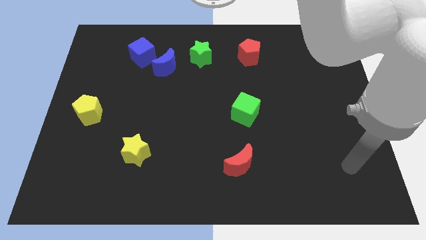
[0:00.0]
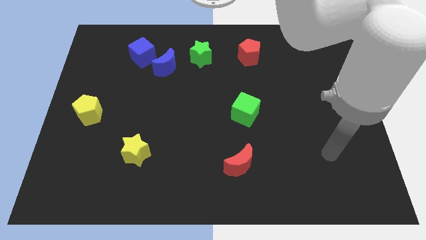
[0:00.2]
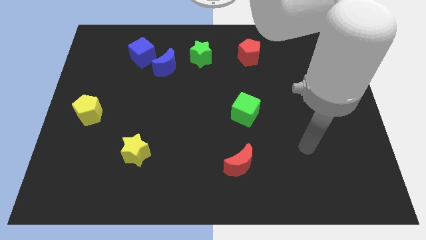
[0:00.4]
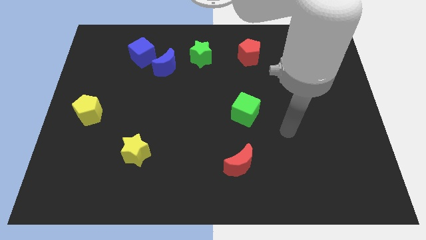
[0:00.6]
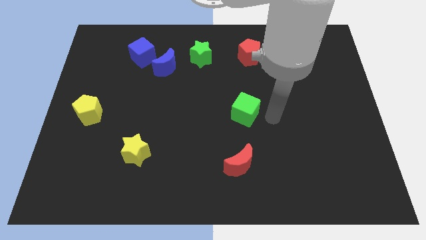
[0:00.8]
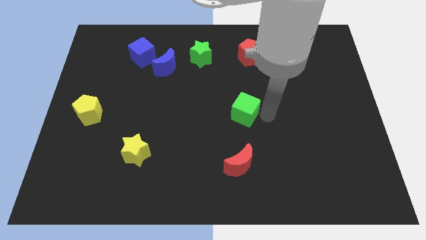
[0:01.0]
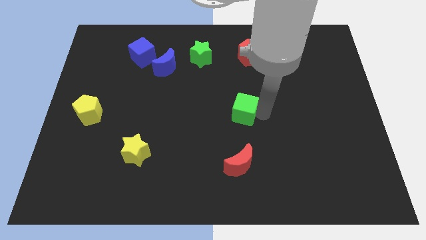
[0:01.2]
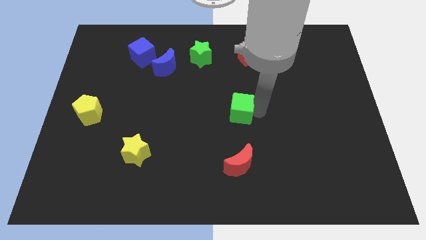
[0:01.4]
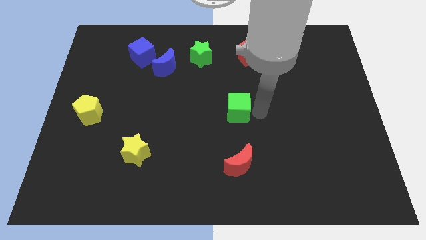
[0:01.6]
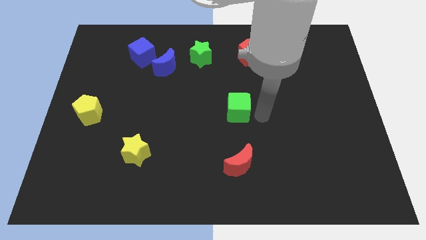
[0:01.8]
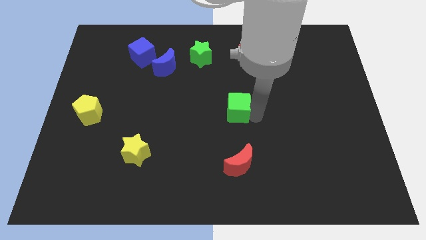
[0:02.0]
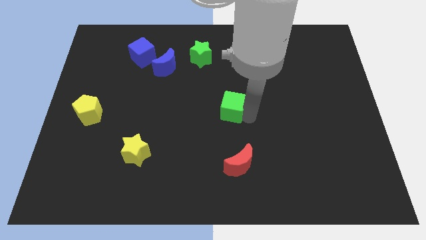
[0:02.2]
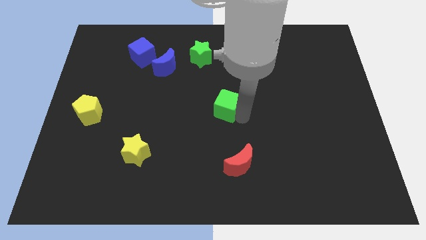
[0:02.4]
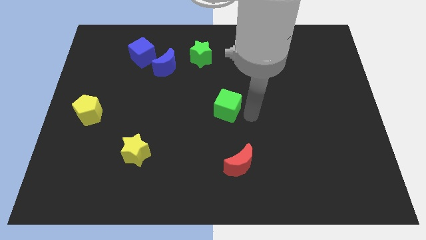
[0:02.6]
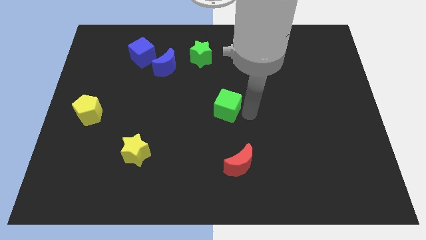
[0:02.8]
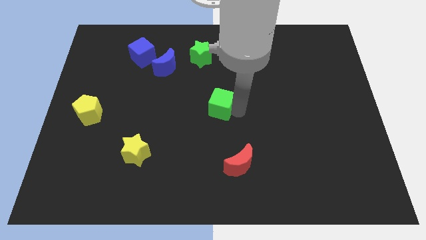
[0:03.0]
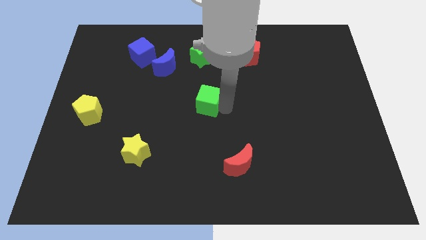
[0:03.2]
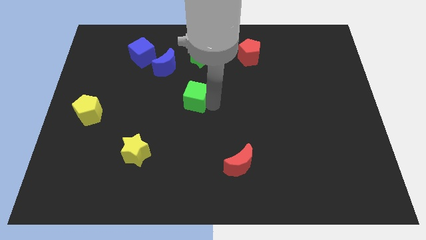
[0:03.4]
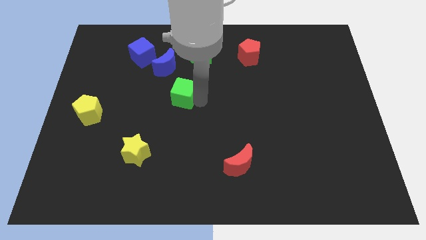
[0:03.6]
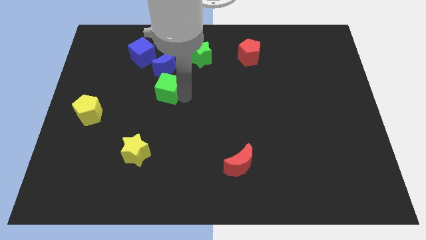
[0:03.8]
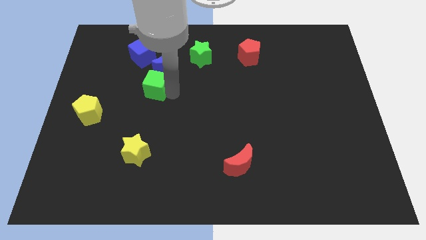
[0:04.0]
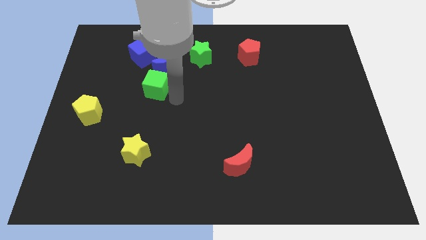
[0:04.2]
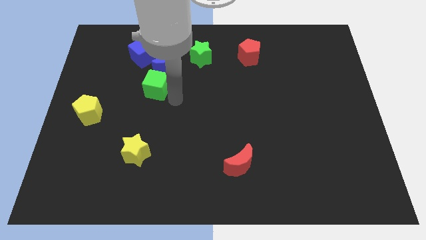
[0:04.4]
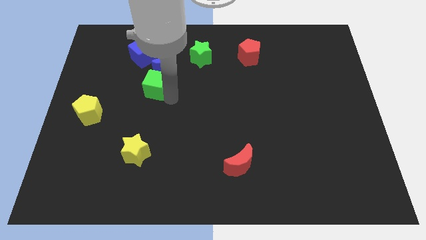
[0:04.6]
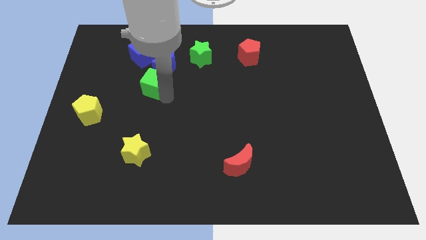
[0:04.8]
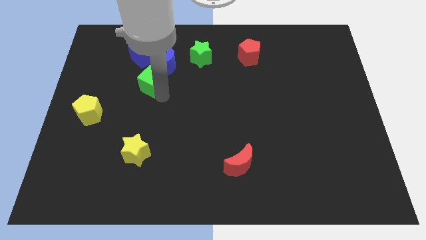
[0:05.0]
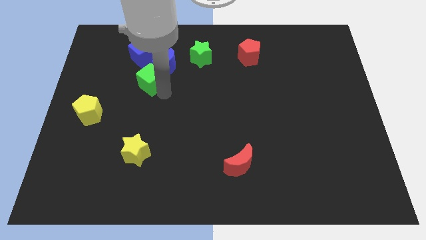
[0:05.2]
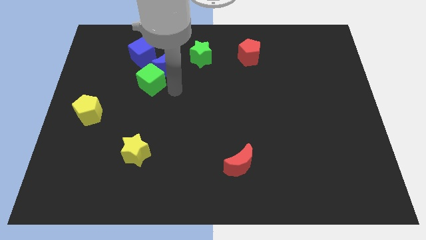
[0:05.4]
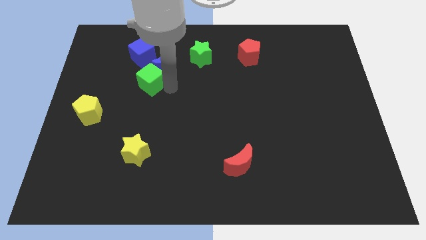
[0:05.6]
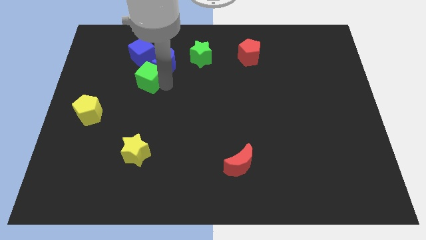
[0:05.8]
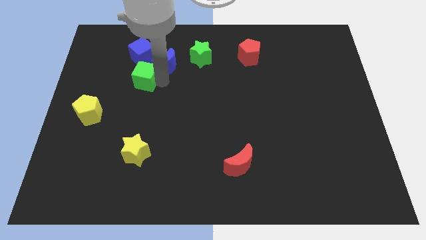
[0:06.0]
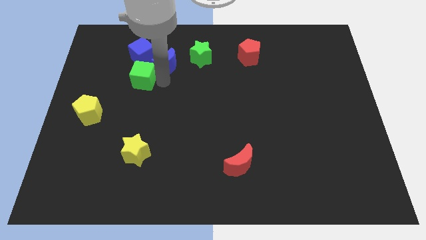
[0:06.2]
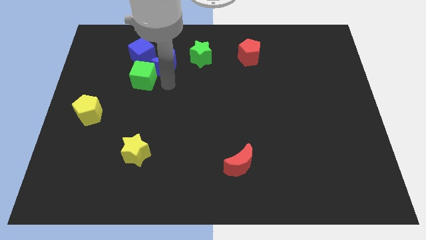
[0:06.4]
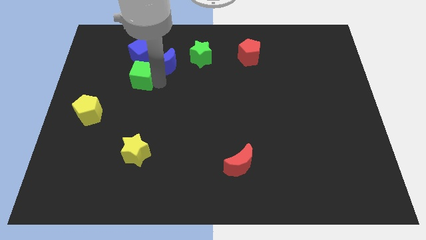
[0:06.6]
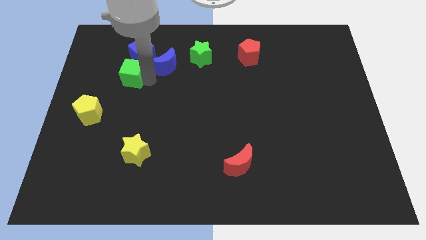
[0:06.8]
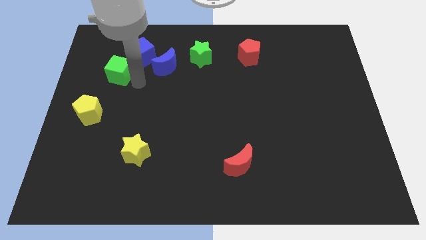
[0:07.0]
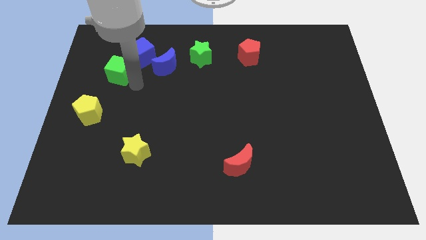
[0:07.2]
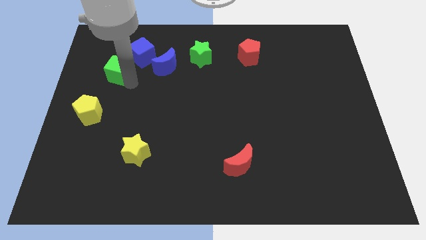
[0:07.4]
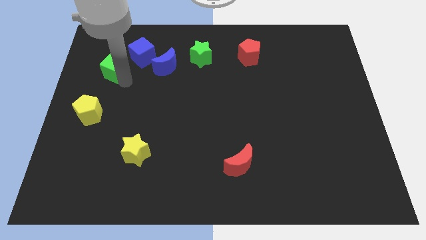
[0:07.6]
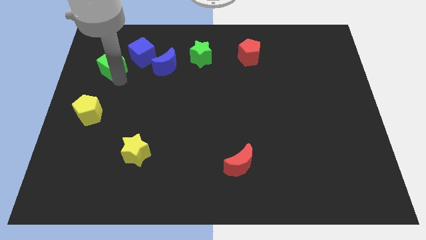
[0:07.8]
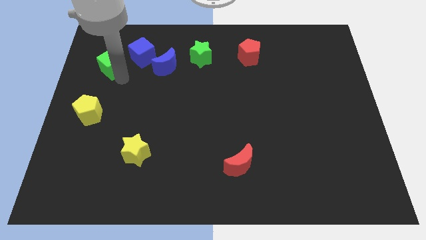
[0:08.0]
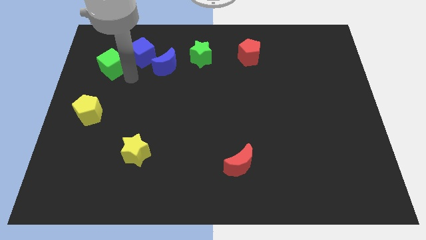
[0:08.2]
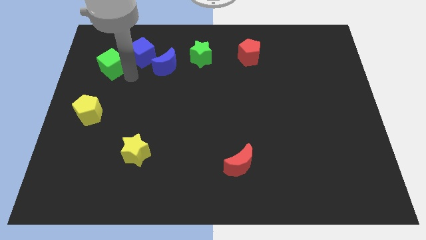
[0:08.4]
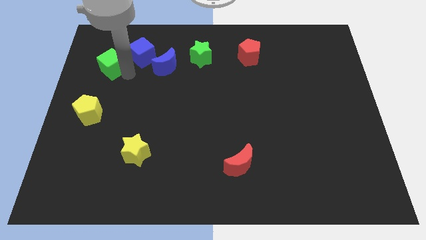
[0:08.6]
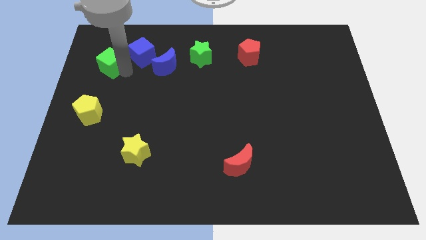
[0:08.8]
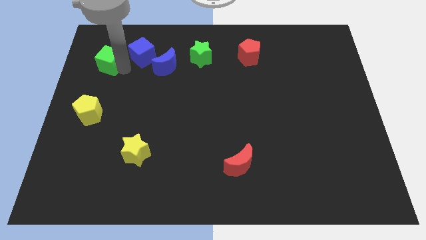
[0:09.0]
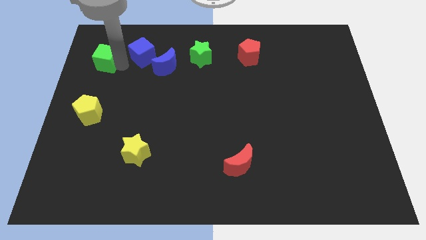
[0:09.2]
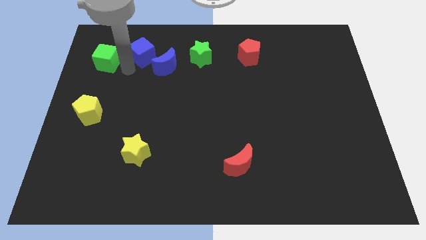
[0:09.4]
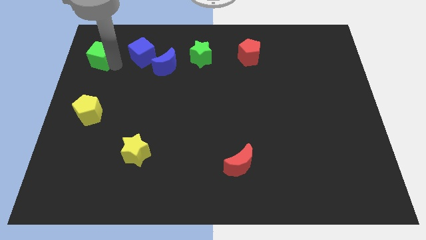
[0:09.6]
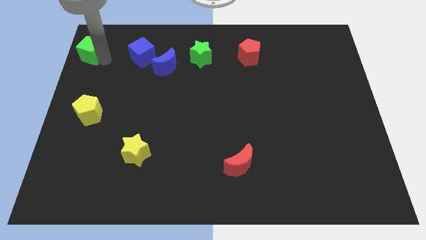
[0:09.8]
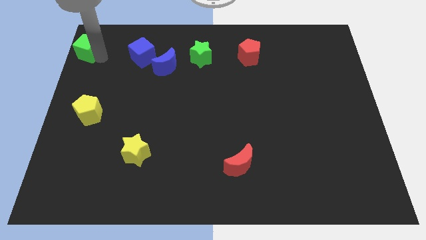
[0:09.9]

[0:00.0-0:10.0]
push the green cube to the top left corner

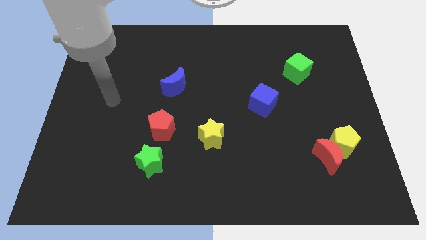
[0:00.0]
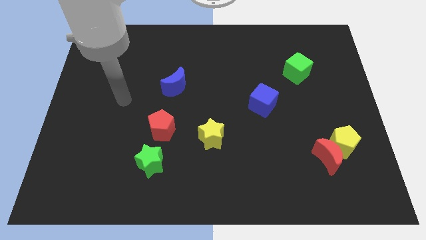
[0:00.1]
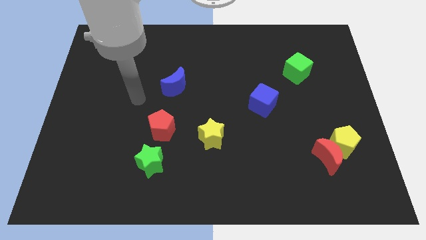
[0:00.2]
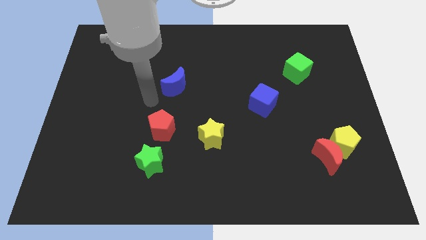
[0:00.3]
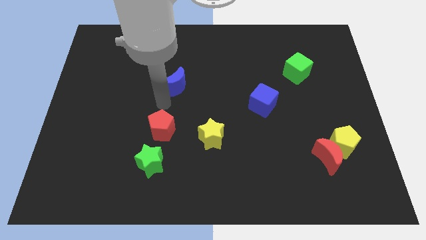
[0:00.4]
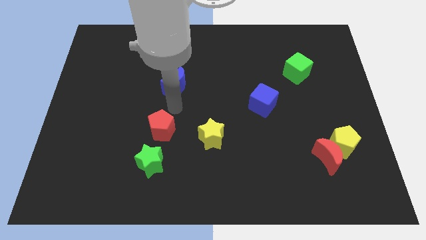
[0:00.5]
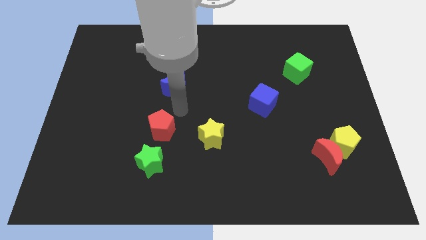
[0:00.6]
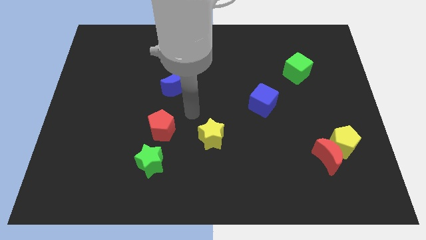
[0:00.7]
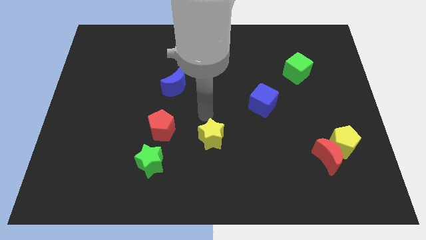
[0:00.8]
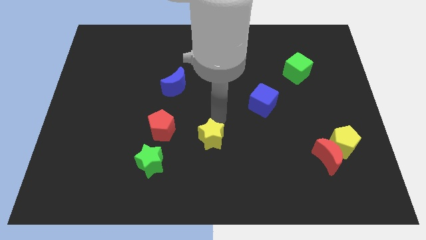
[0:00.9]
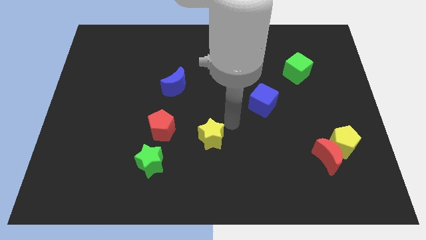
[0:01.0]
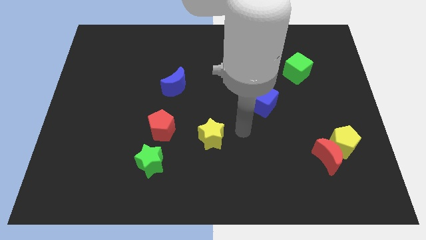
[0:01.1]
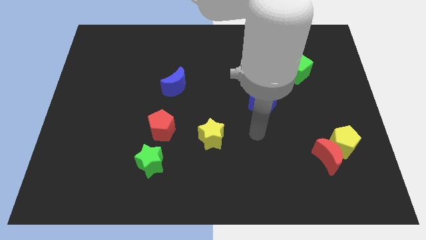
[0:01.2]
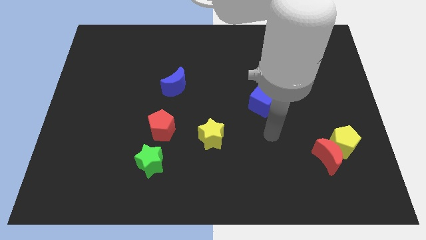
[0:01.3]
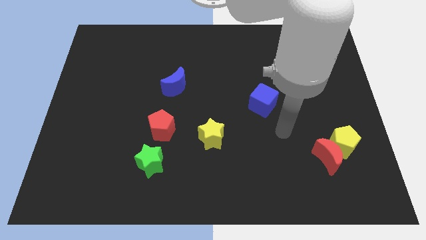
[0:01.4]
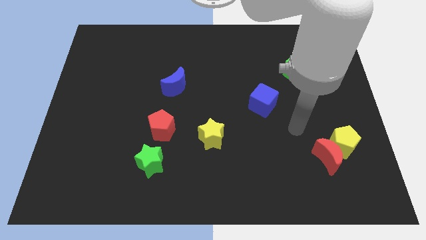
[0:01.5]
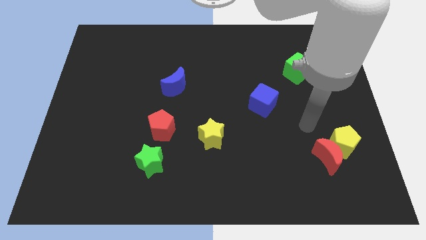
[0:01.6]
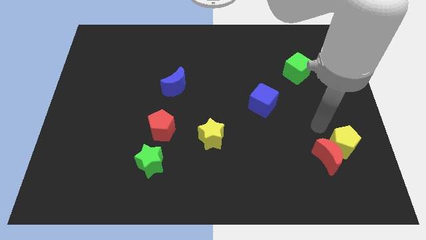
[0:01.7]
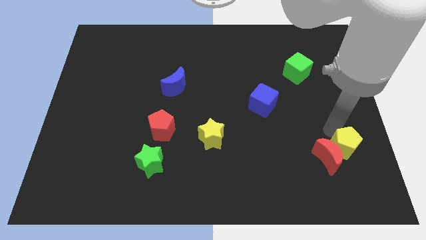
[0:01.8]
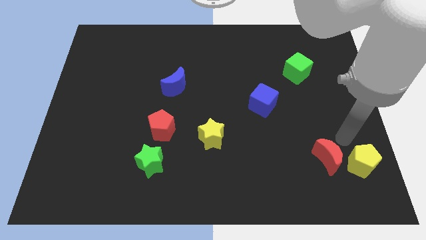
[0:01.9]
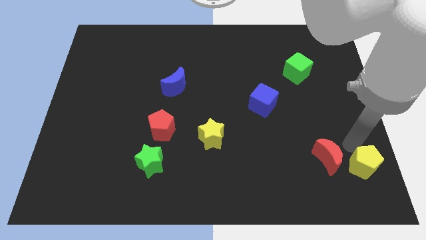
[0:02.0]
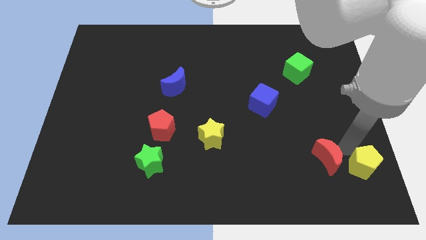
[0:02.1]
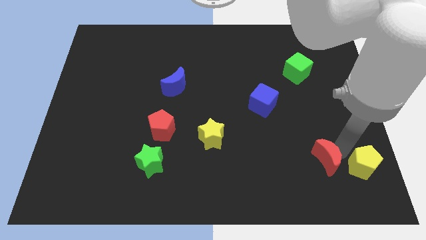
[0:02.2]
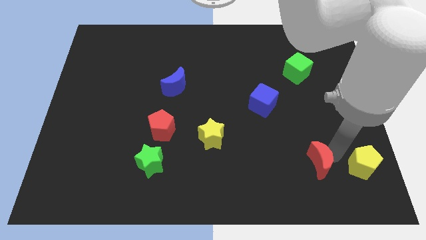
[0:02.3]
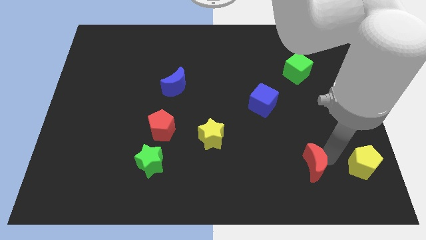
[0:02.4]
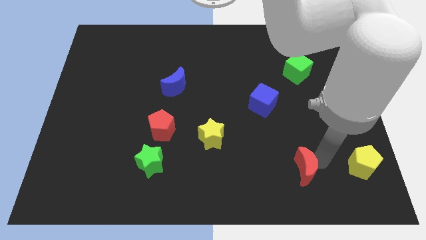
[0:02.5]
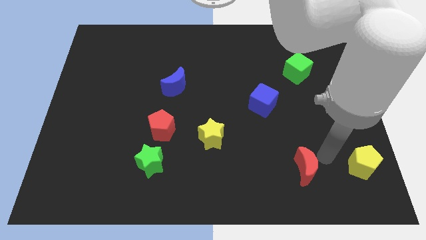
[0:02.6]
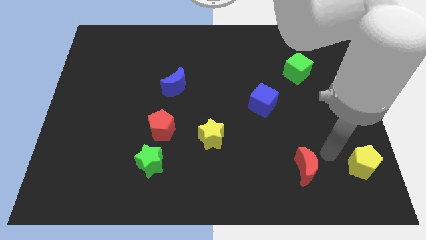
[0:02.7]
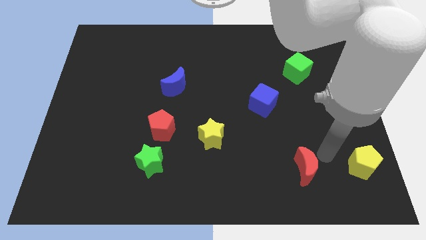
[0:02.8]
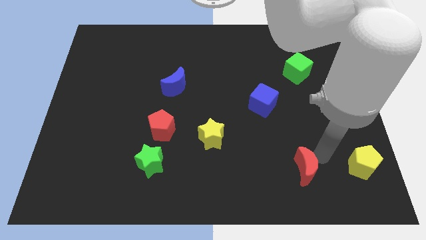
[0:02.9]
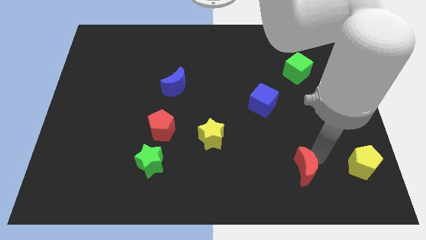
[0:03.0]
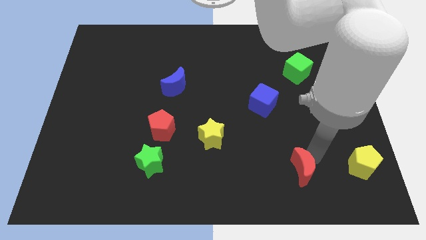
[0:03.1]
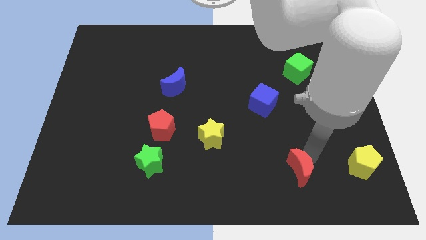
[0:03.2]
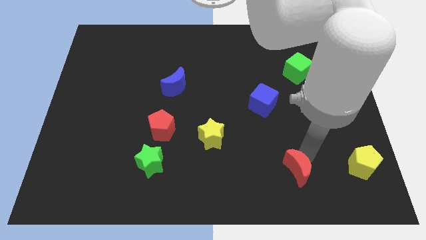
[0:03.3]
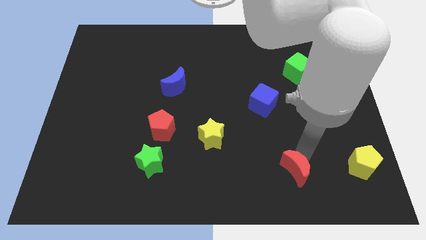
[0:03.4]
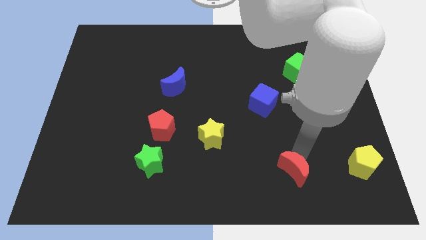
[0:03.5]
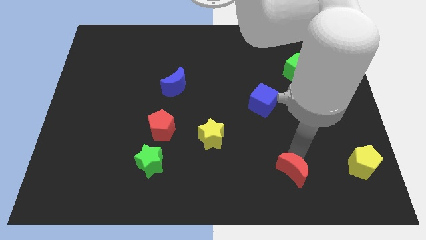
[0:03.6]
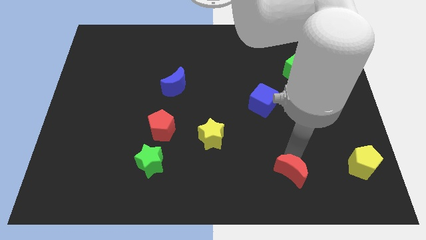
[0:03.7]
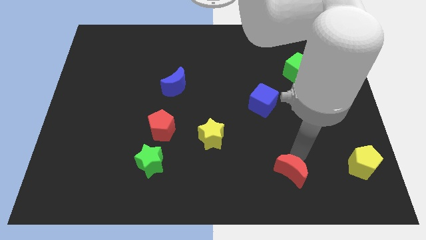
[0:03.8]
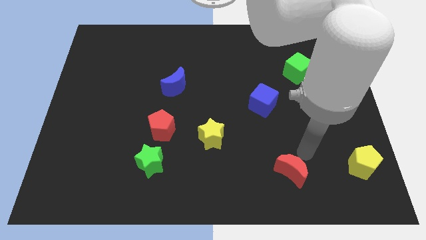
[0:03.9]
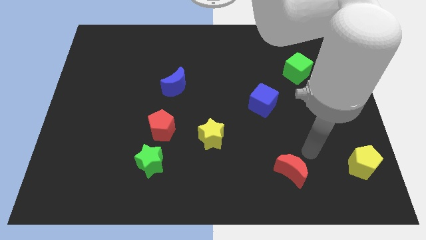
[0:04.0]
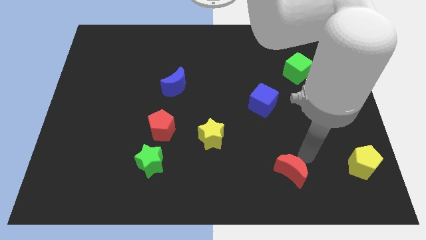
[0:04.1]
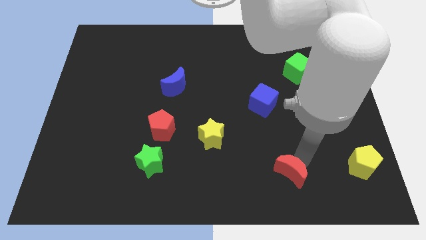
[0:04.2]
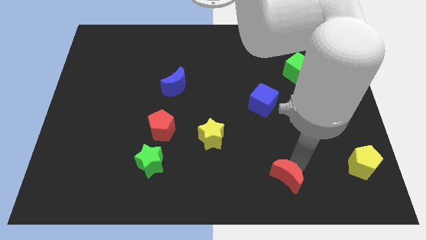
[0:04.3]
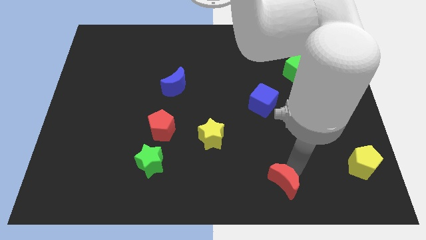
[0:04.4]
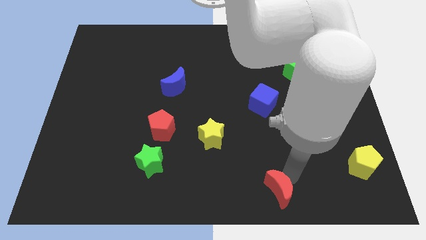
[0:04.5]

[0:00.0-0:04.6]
push the red moon to the bottom
